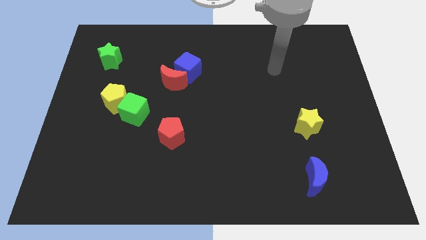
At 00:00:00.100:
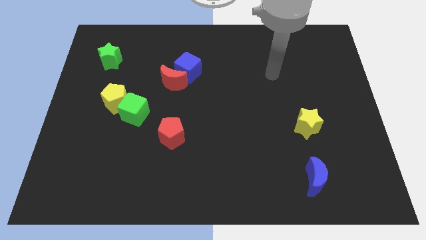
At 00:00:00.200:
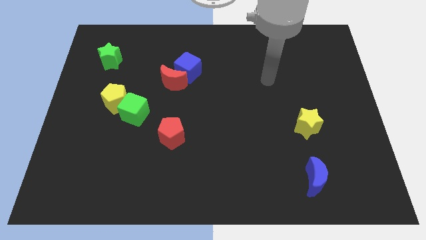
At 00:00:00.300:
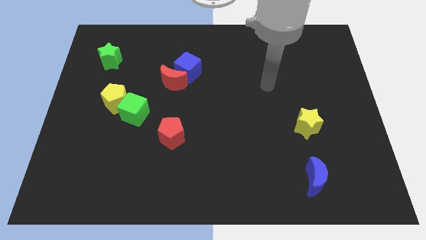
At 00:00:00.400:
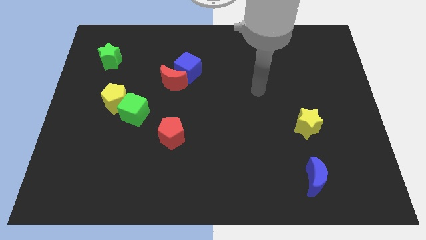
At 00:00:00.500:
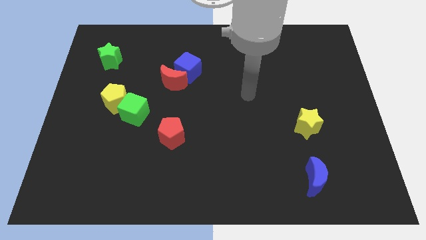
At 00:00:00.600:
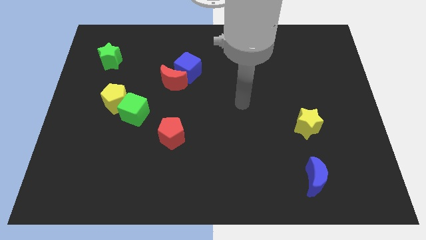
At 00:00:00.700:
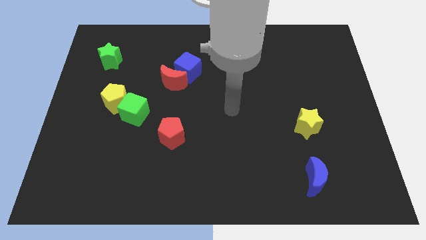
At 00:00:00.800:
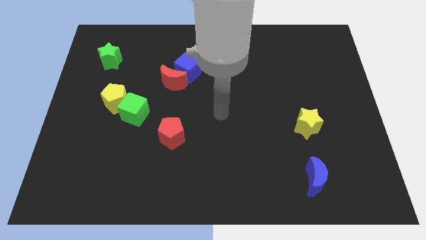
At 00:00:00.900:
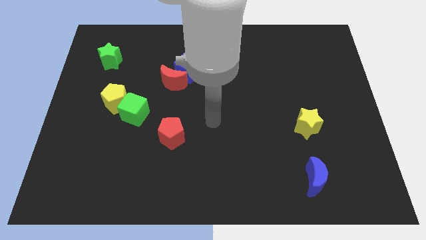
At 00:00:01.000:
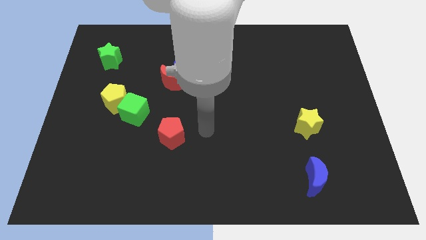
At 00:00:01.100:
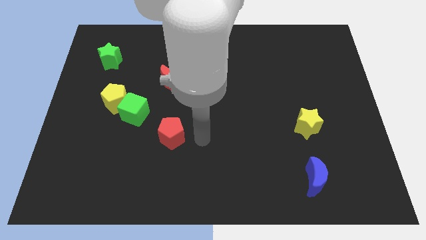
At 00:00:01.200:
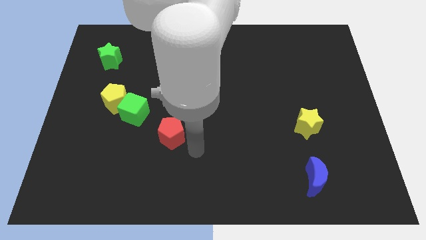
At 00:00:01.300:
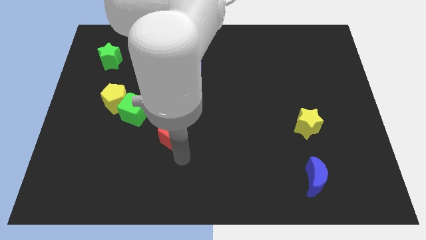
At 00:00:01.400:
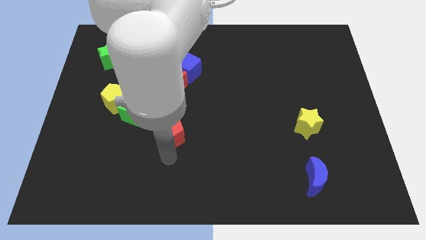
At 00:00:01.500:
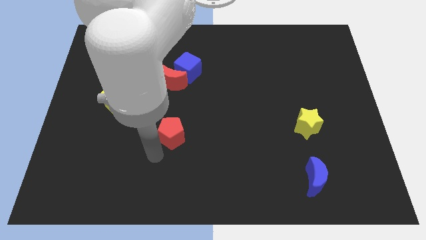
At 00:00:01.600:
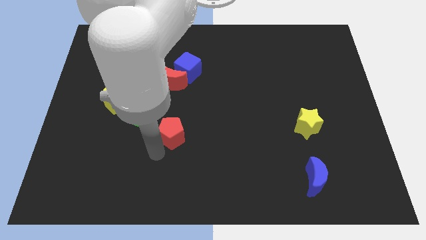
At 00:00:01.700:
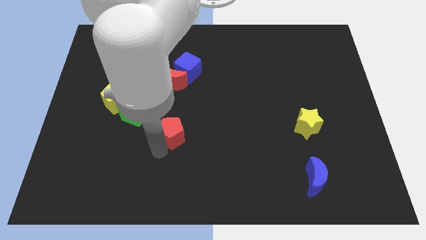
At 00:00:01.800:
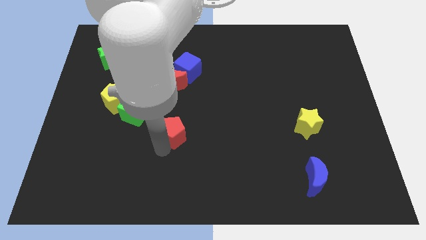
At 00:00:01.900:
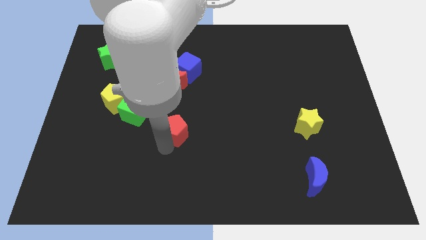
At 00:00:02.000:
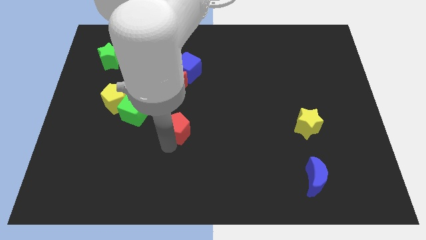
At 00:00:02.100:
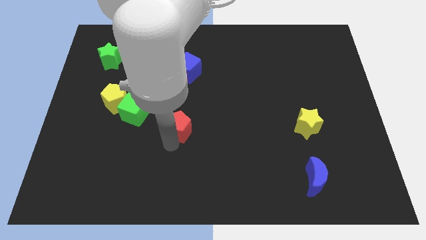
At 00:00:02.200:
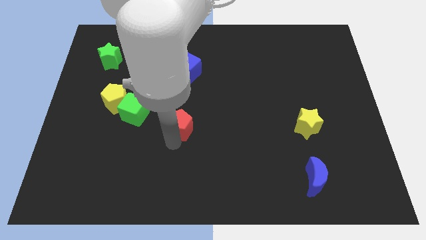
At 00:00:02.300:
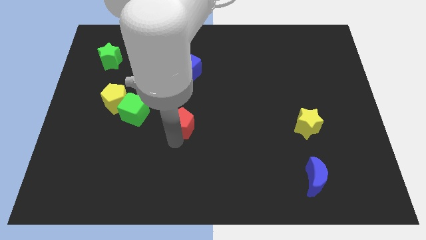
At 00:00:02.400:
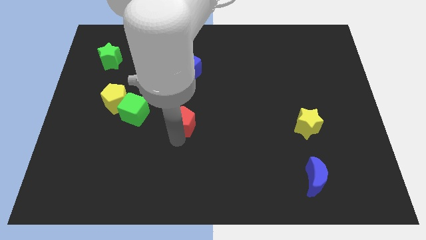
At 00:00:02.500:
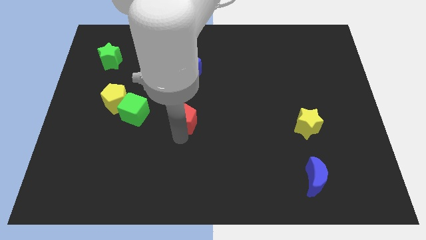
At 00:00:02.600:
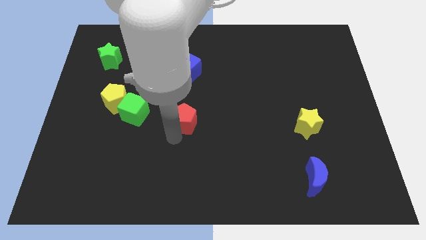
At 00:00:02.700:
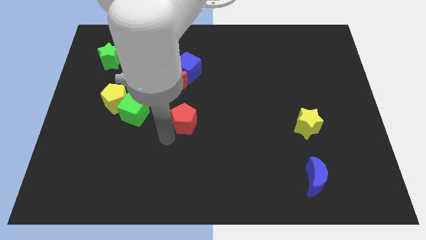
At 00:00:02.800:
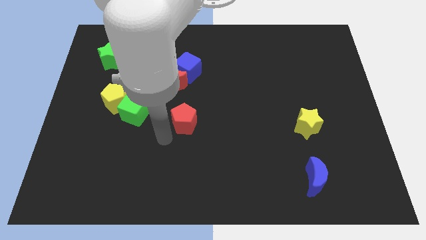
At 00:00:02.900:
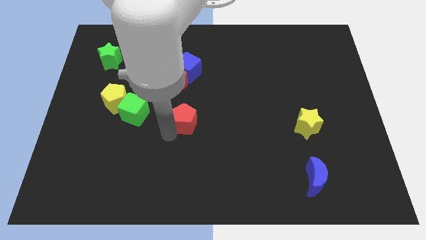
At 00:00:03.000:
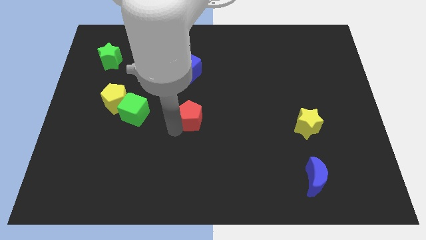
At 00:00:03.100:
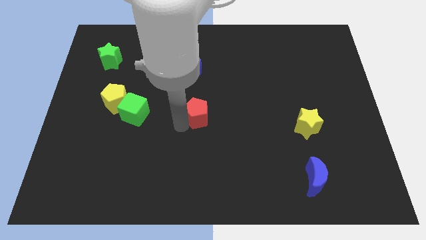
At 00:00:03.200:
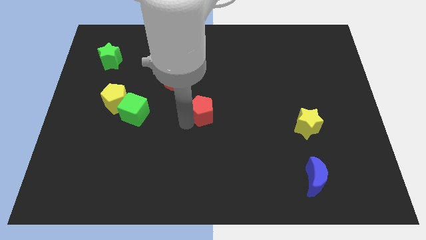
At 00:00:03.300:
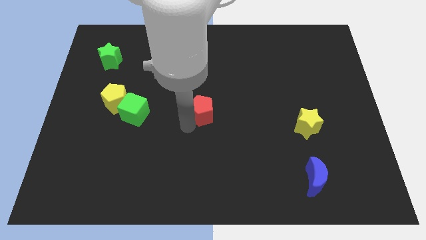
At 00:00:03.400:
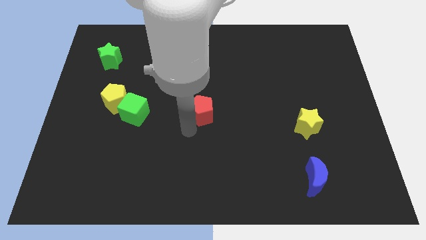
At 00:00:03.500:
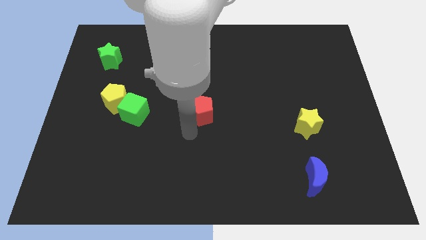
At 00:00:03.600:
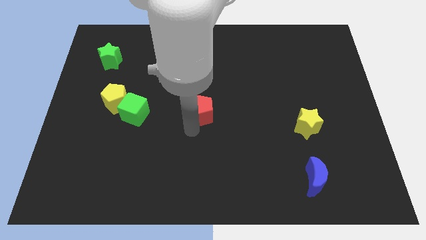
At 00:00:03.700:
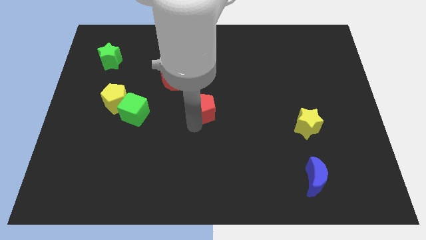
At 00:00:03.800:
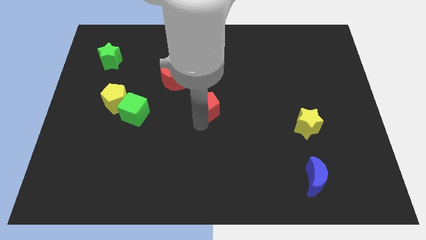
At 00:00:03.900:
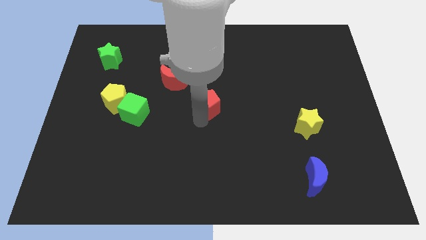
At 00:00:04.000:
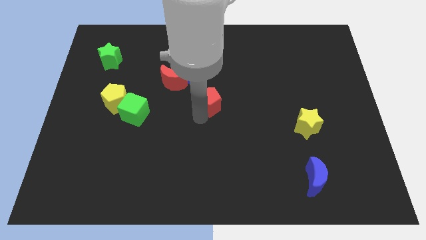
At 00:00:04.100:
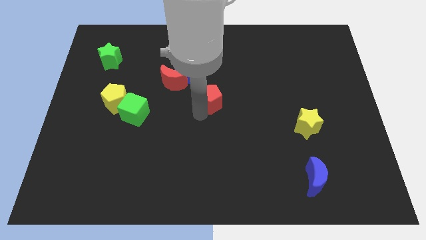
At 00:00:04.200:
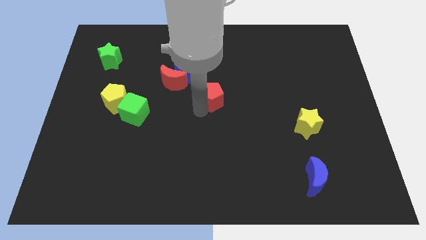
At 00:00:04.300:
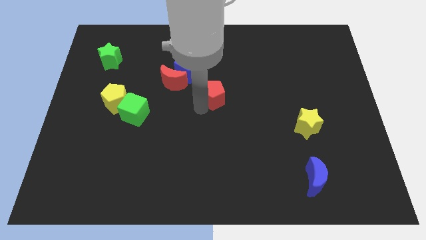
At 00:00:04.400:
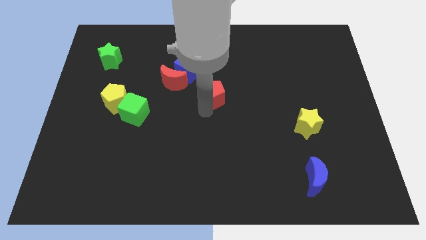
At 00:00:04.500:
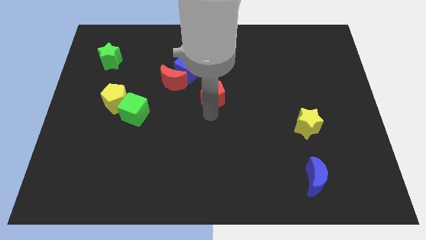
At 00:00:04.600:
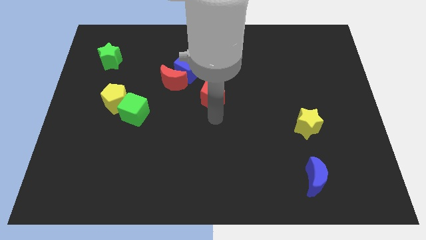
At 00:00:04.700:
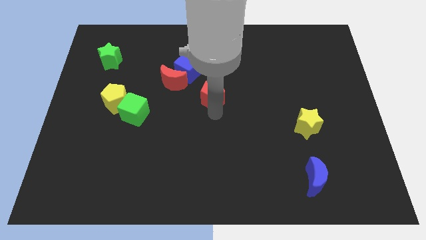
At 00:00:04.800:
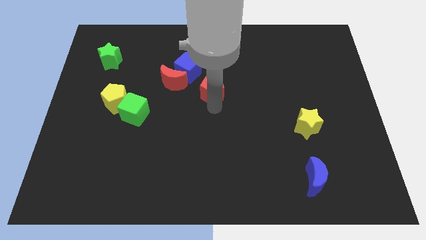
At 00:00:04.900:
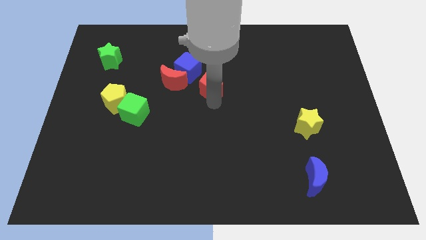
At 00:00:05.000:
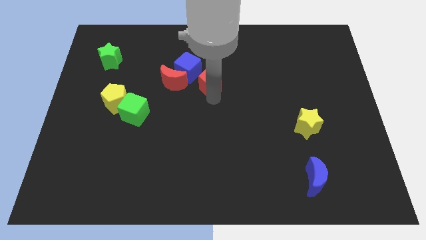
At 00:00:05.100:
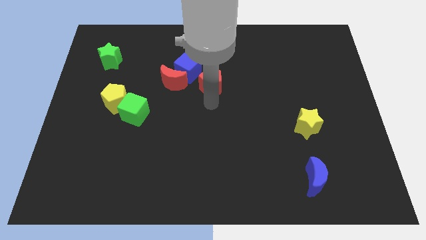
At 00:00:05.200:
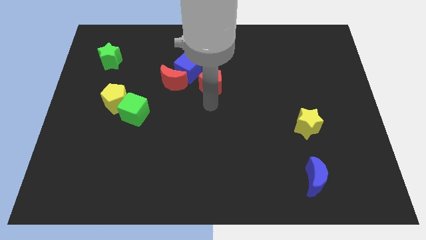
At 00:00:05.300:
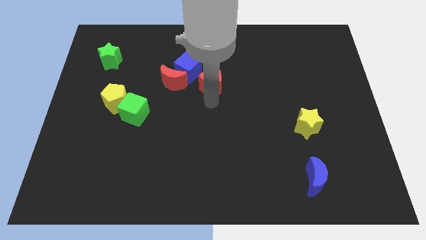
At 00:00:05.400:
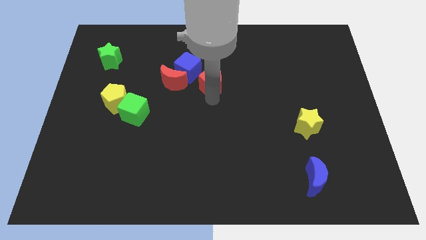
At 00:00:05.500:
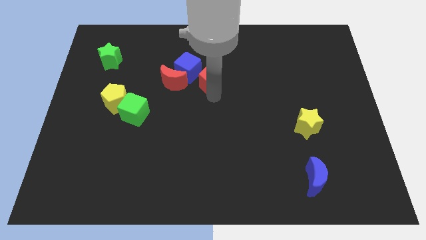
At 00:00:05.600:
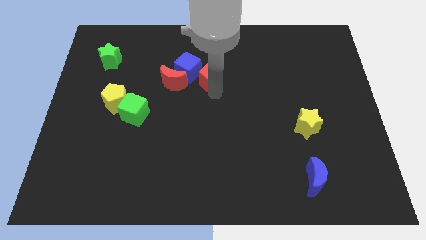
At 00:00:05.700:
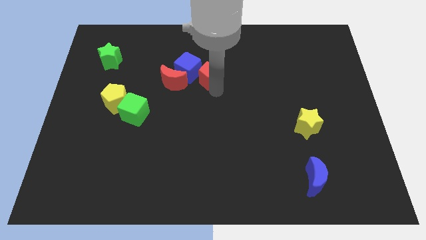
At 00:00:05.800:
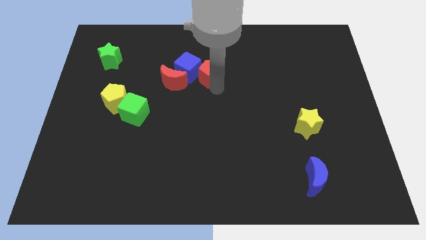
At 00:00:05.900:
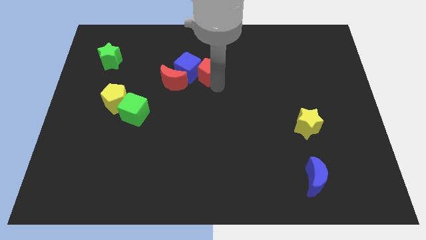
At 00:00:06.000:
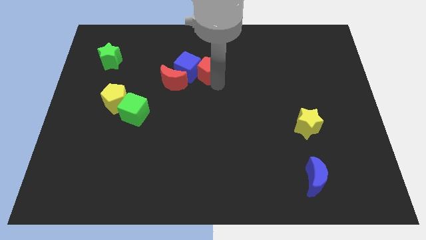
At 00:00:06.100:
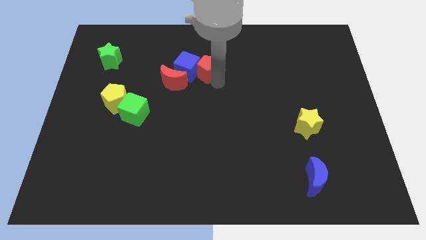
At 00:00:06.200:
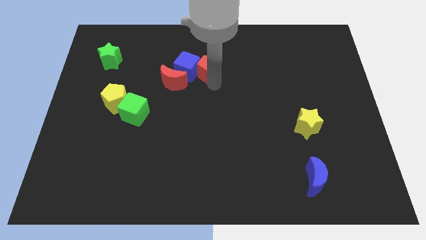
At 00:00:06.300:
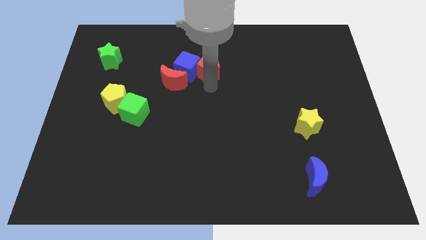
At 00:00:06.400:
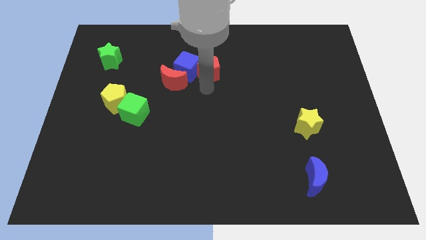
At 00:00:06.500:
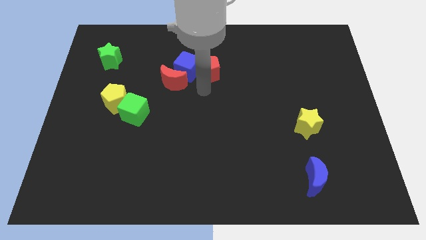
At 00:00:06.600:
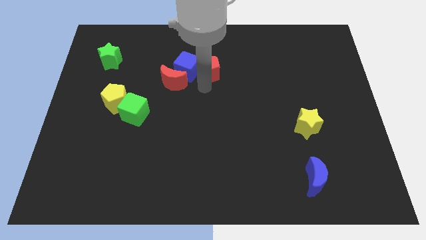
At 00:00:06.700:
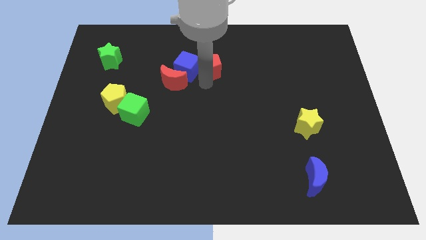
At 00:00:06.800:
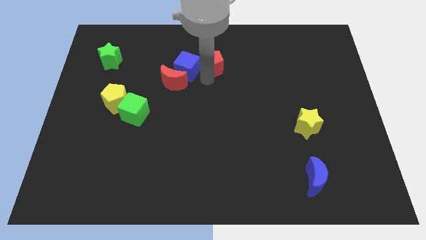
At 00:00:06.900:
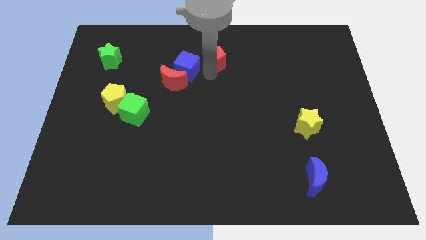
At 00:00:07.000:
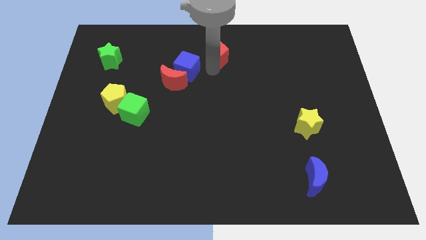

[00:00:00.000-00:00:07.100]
slide the red pentagon to the top
